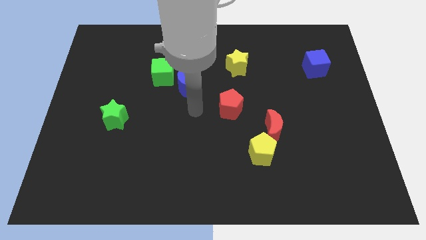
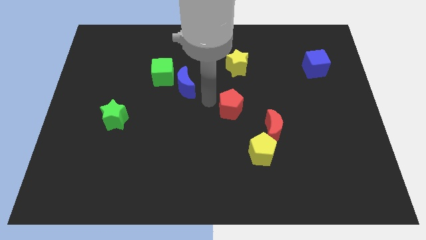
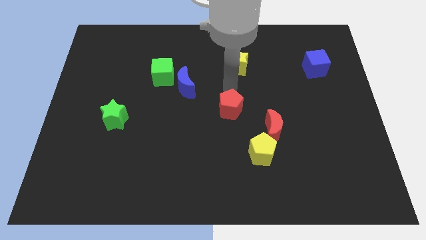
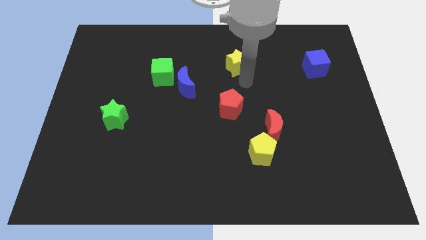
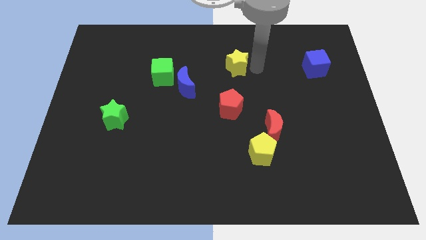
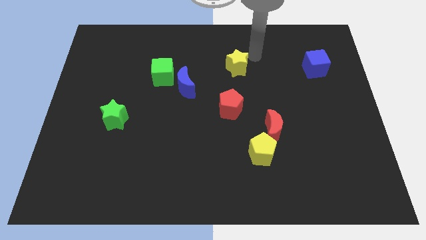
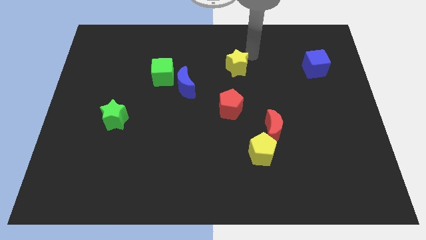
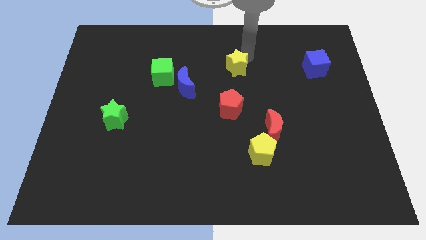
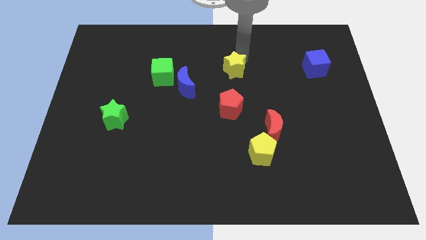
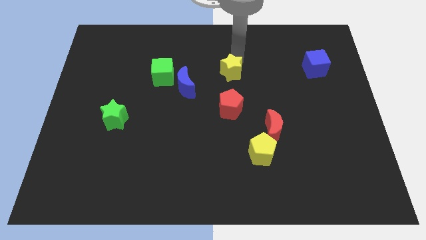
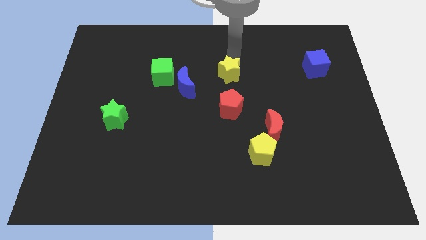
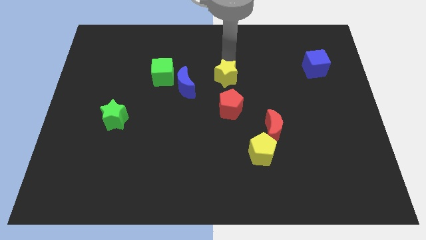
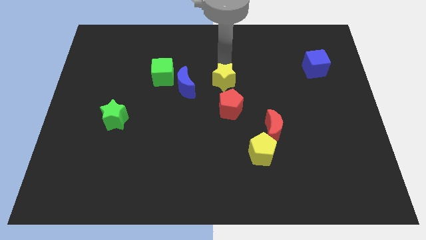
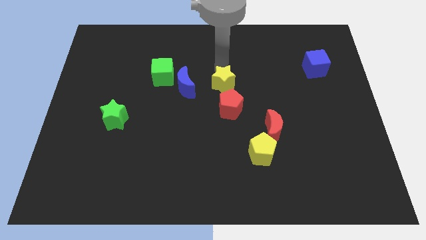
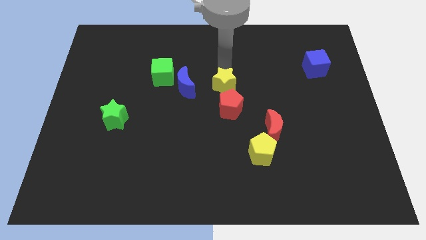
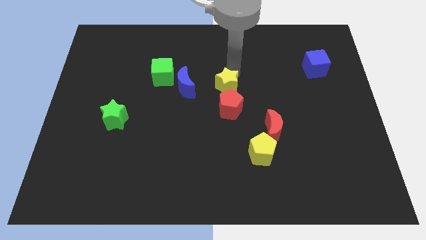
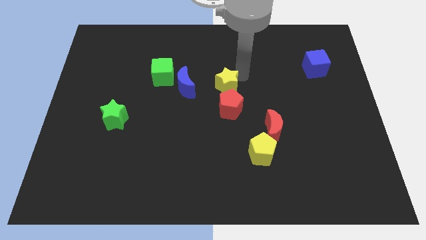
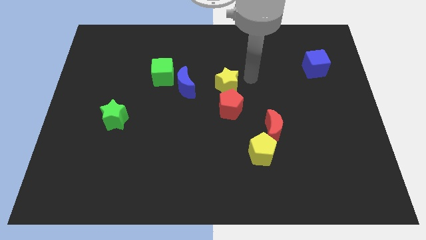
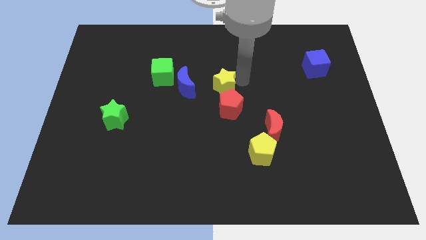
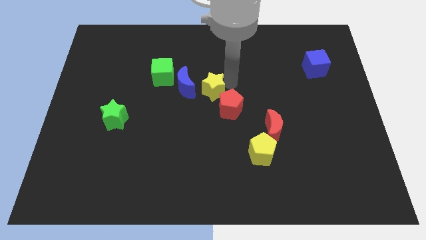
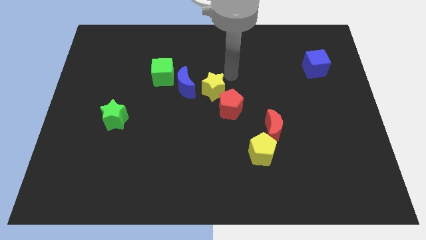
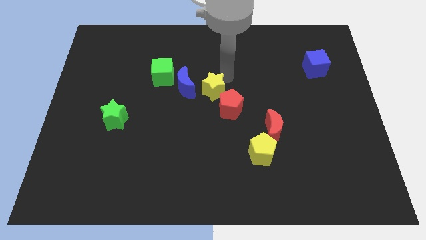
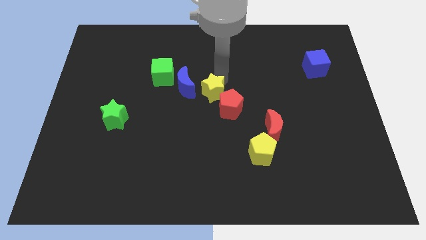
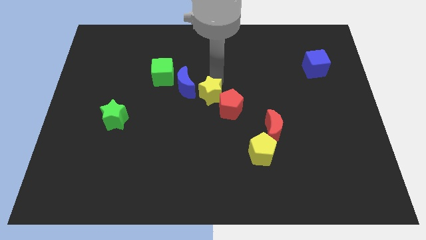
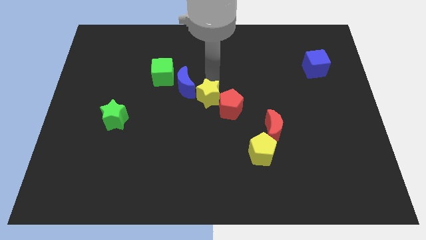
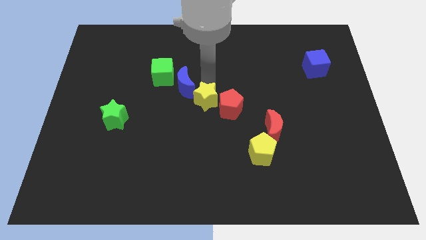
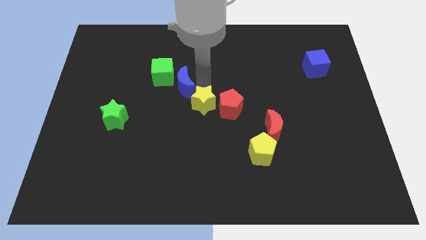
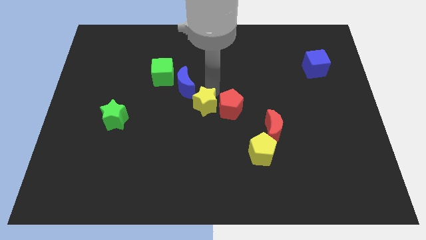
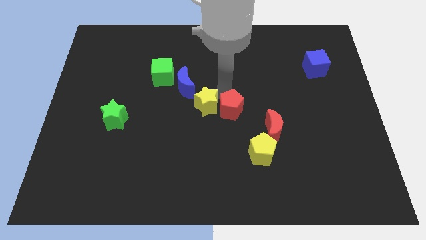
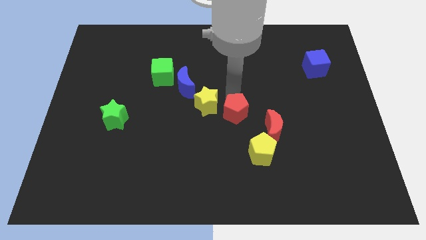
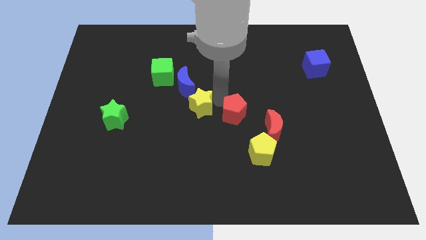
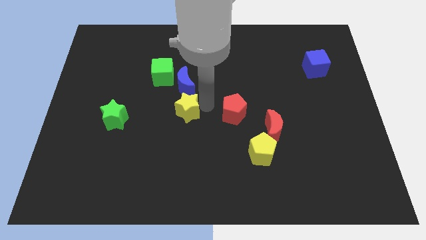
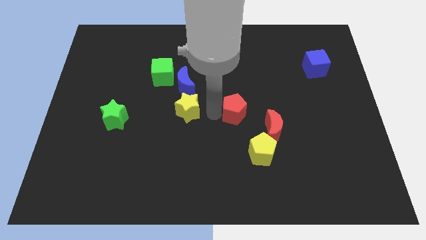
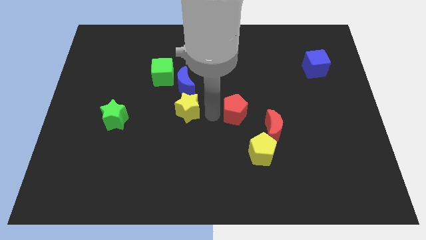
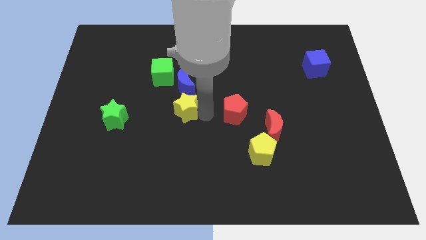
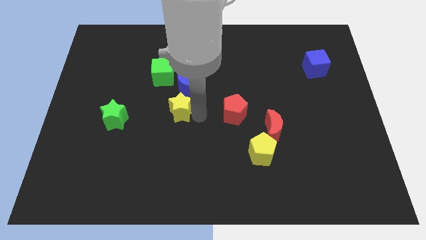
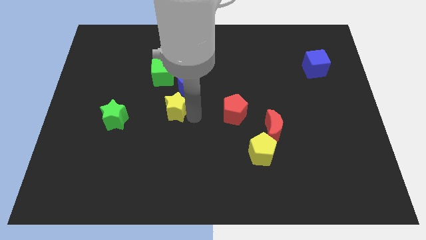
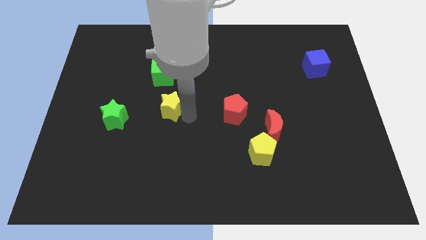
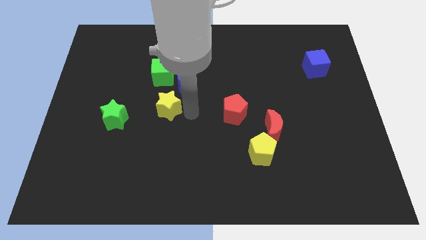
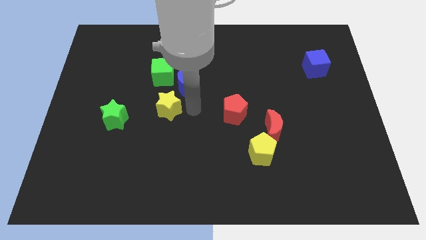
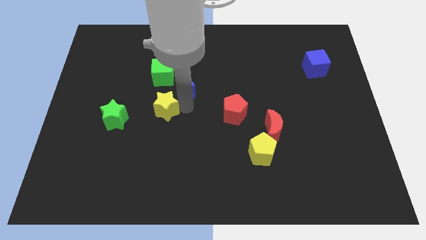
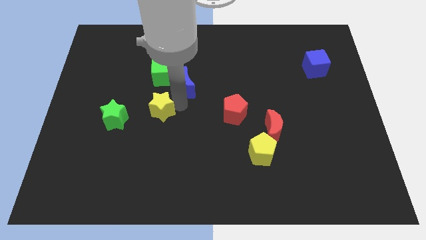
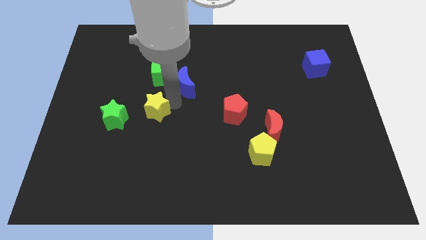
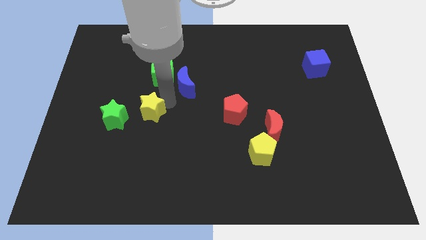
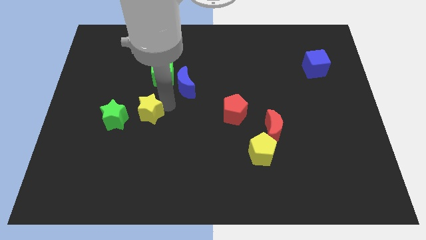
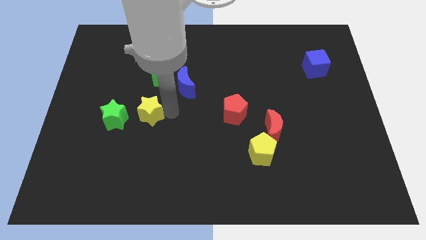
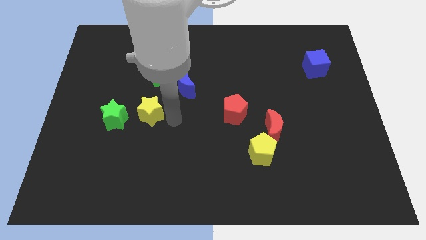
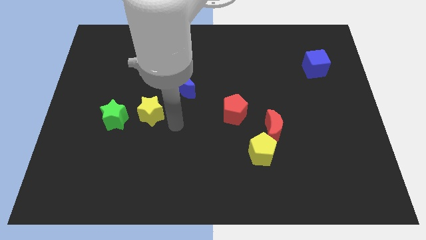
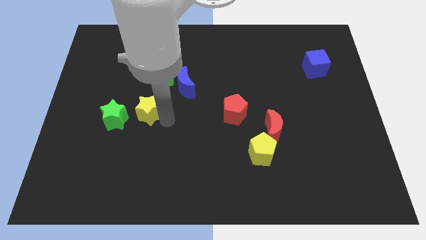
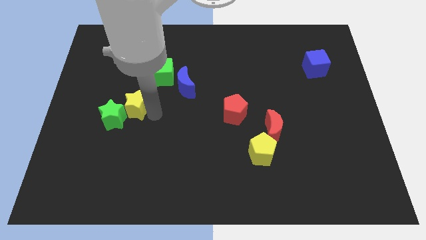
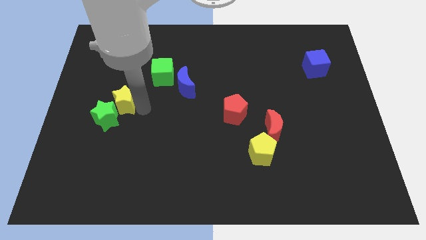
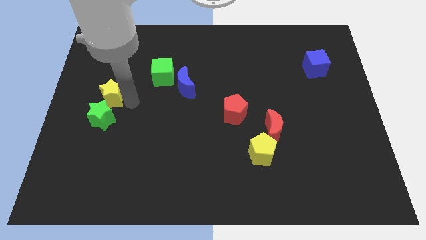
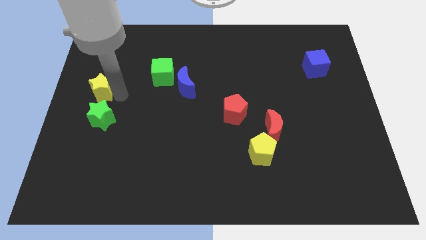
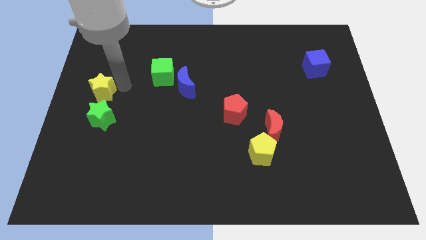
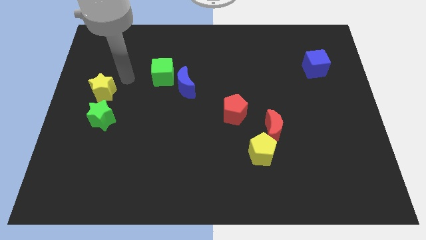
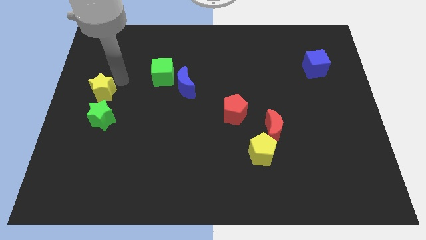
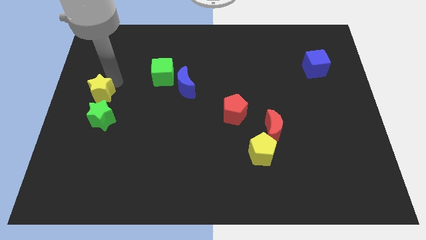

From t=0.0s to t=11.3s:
push the yellow star diagonally up and to the left of the green star

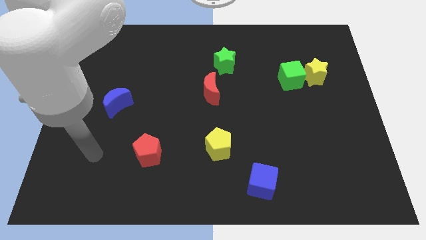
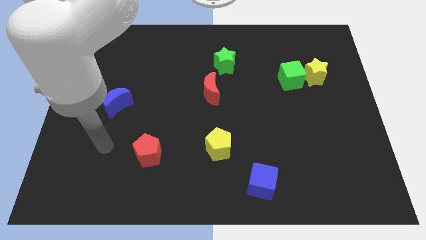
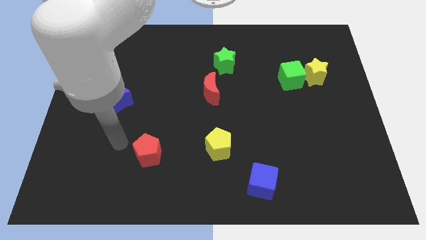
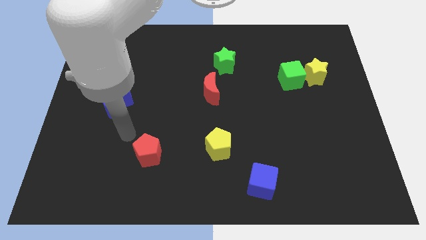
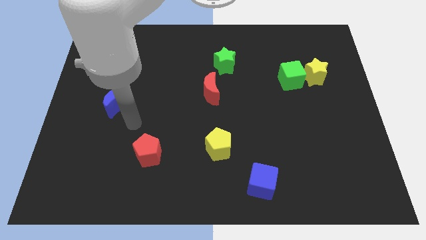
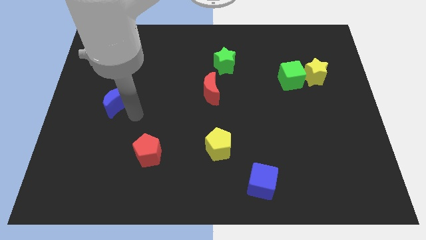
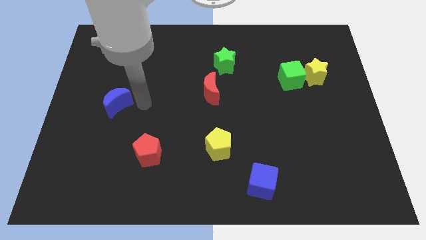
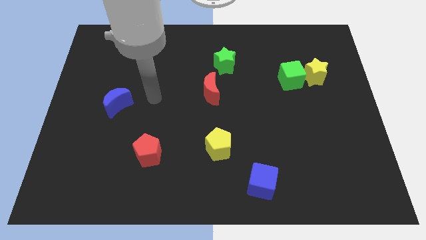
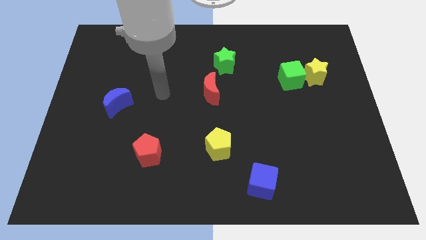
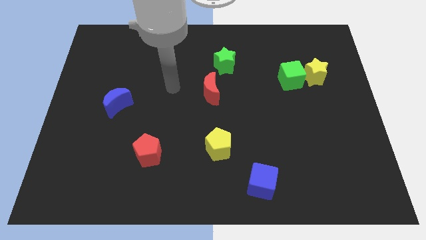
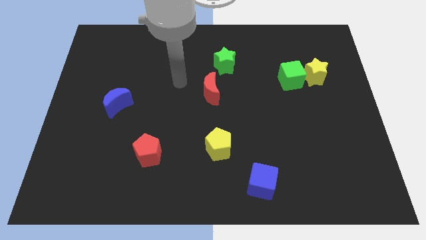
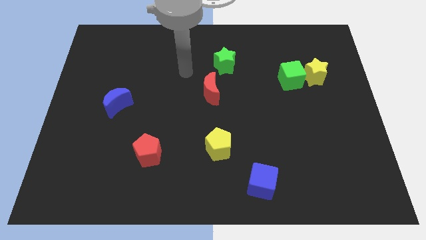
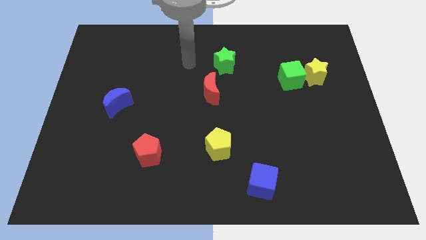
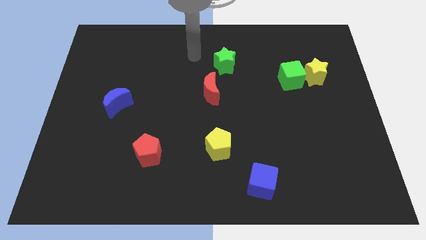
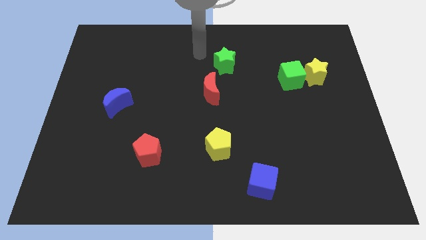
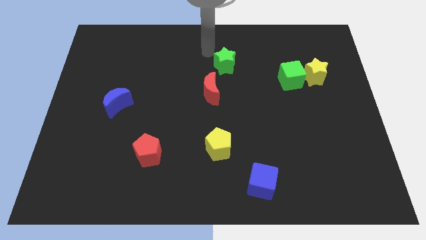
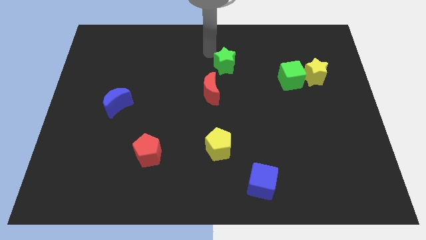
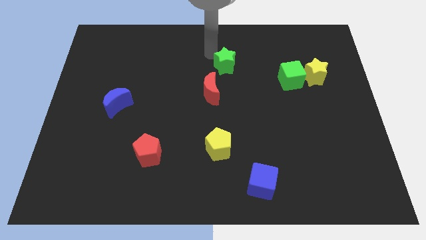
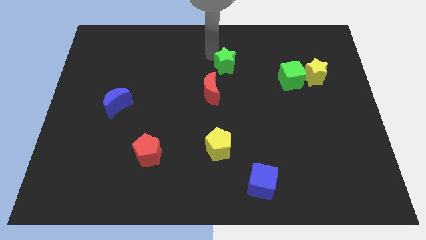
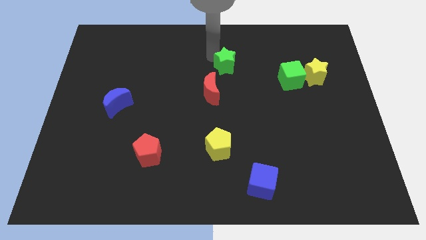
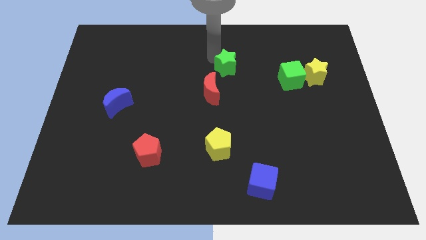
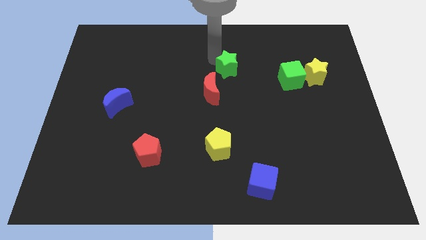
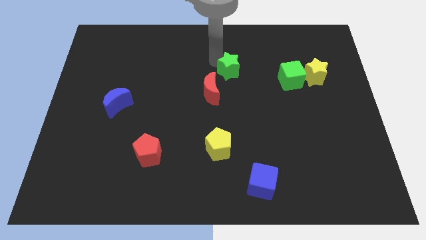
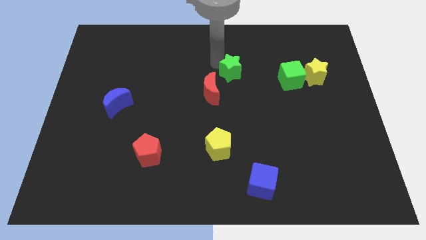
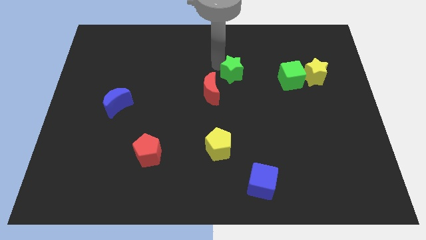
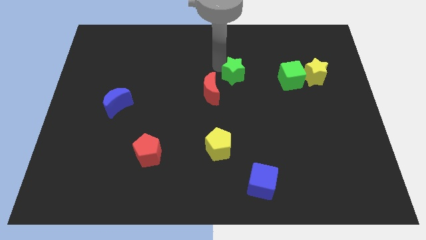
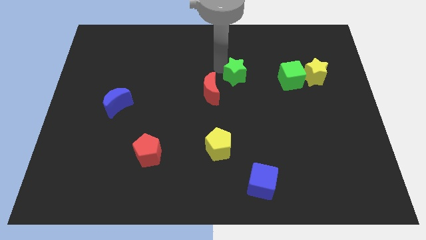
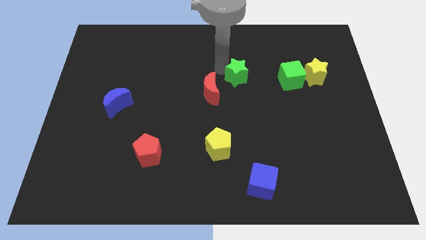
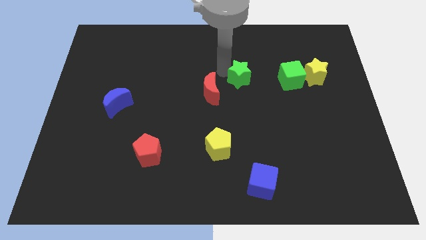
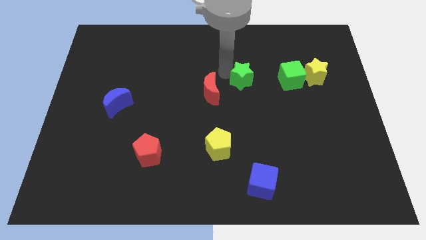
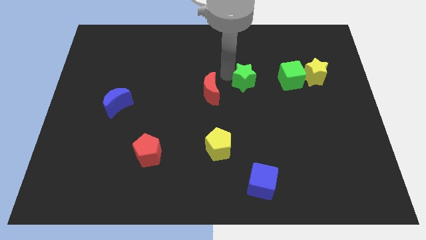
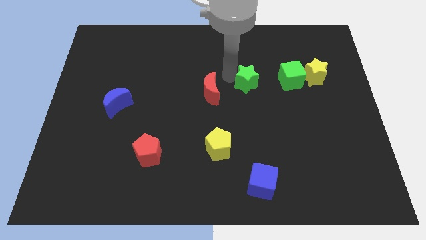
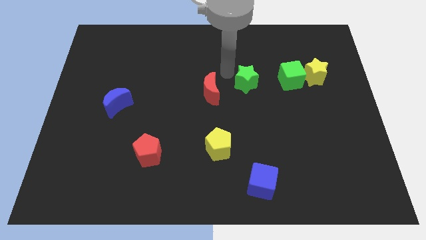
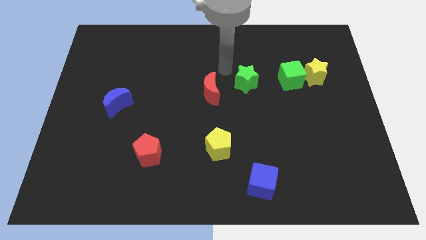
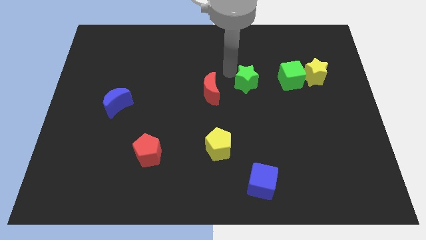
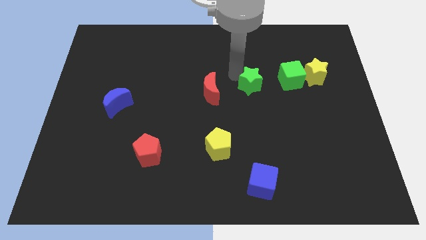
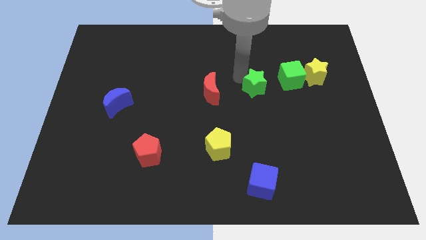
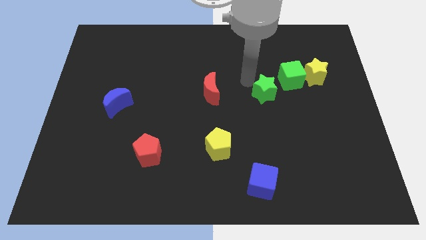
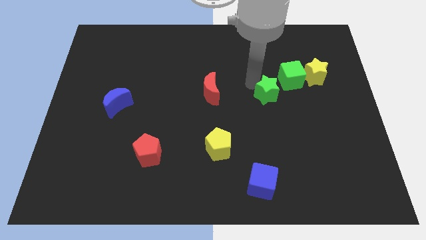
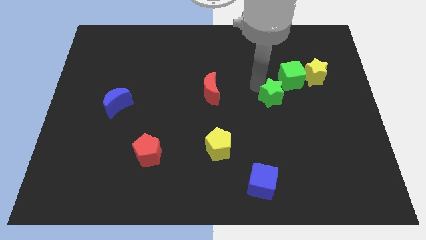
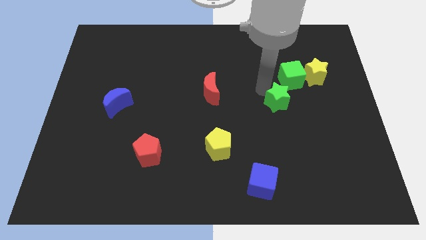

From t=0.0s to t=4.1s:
put the green star to the bottom of the green cube
